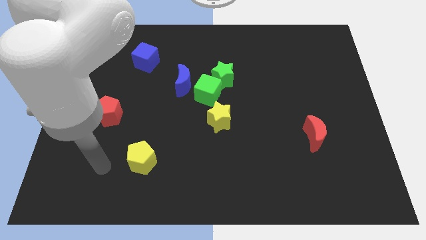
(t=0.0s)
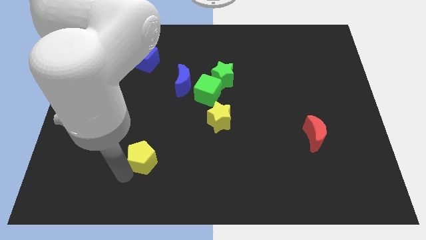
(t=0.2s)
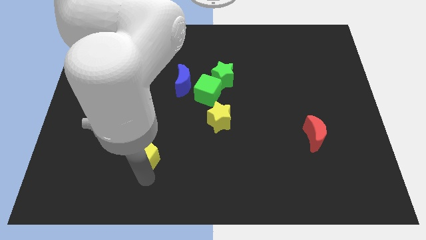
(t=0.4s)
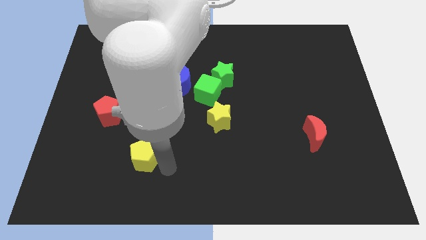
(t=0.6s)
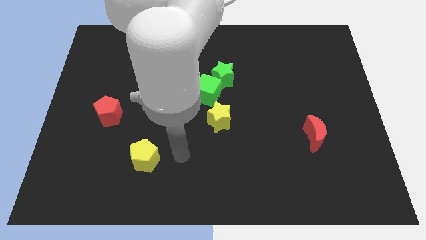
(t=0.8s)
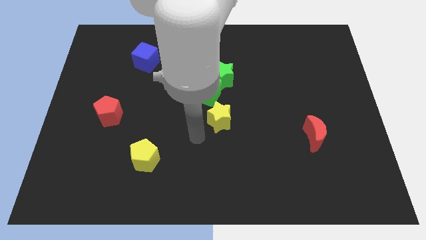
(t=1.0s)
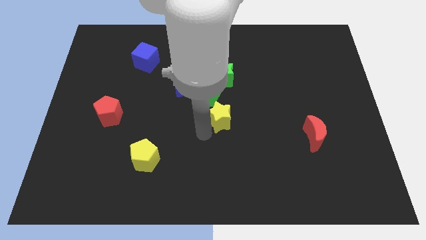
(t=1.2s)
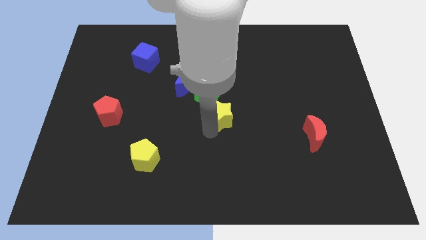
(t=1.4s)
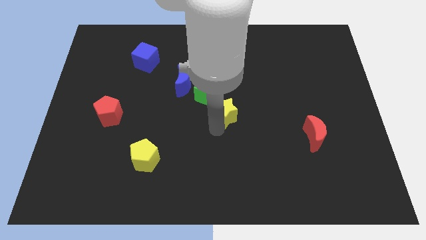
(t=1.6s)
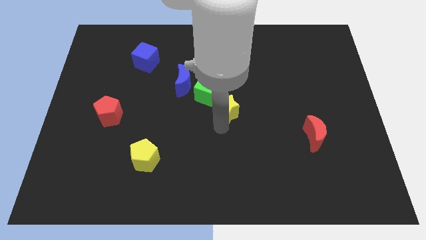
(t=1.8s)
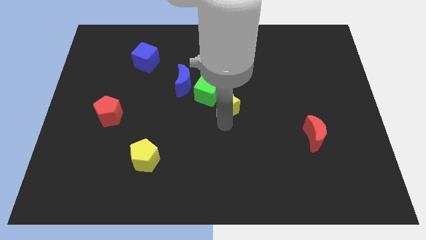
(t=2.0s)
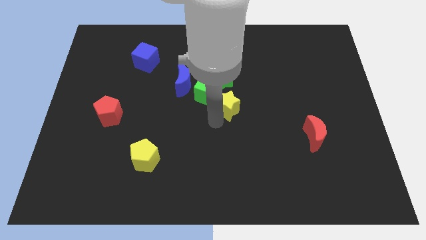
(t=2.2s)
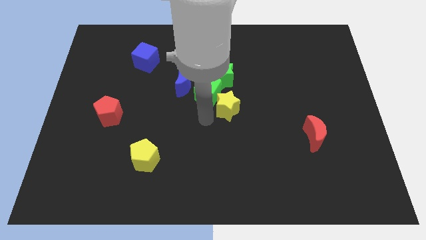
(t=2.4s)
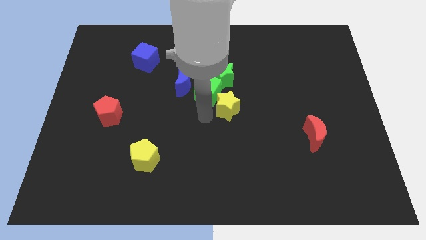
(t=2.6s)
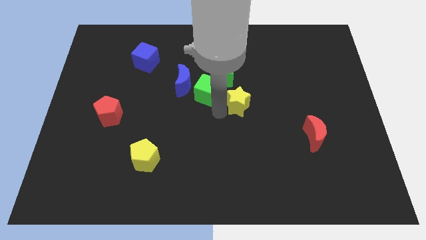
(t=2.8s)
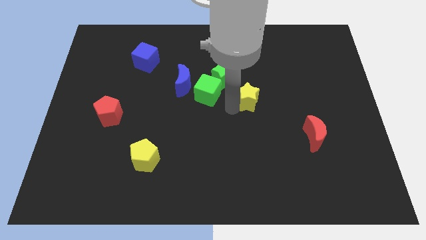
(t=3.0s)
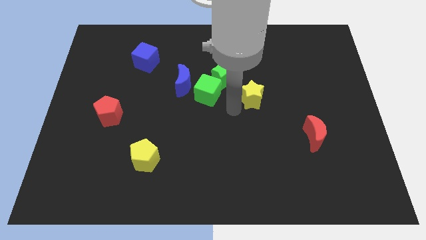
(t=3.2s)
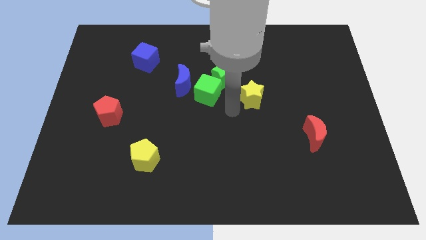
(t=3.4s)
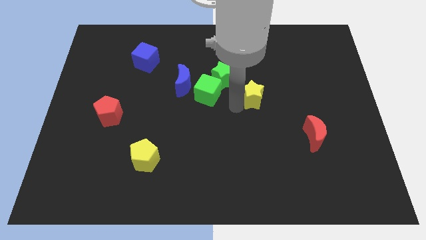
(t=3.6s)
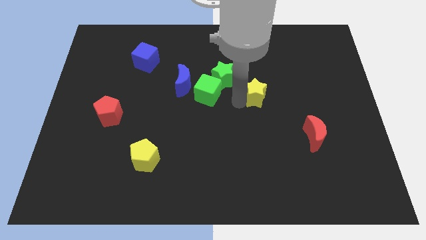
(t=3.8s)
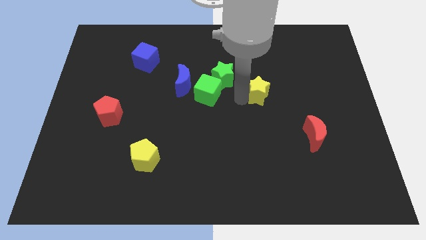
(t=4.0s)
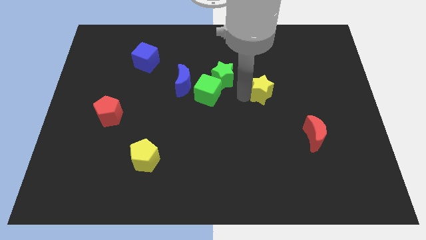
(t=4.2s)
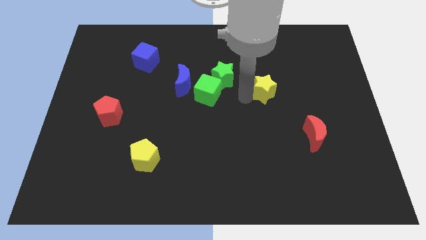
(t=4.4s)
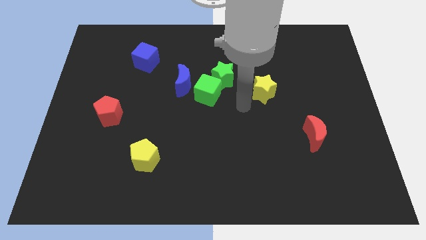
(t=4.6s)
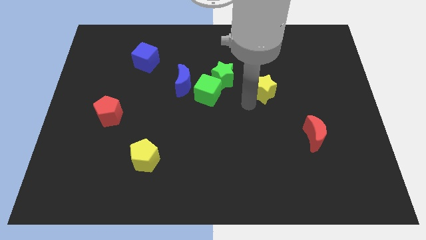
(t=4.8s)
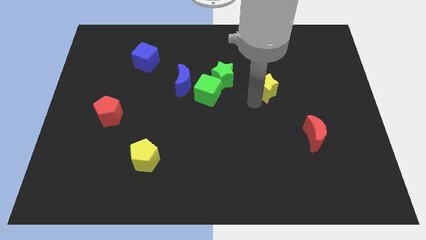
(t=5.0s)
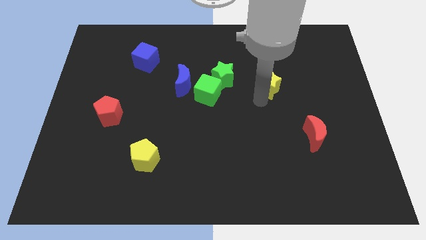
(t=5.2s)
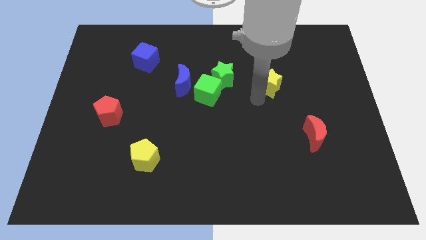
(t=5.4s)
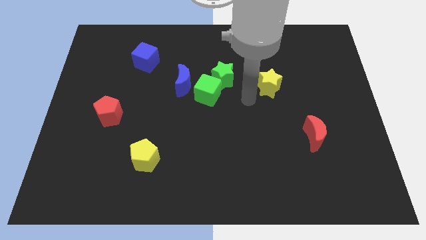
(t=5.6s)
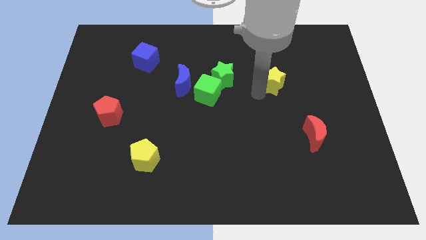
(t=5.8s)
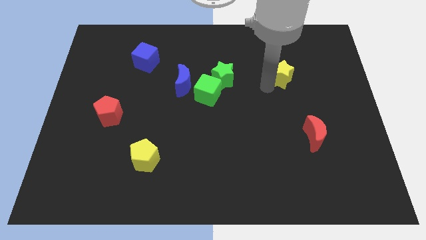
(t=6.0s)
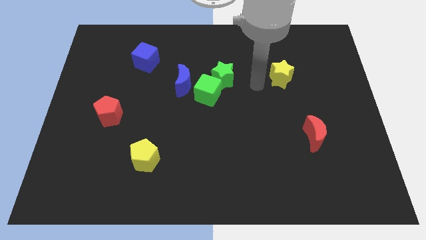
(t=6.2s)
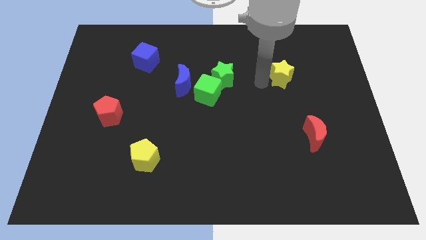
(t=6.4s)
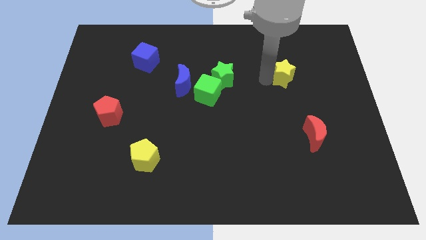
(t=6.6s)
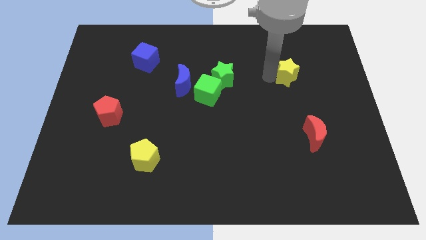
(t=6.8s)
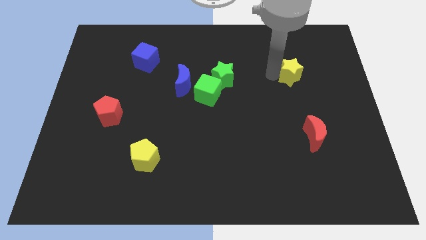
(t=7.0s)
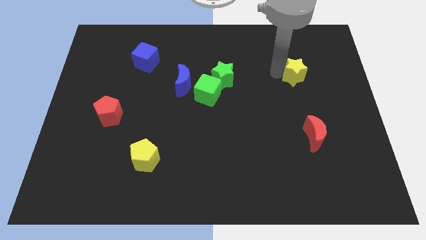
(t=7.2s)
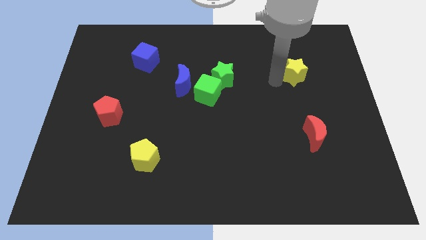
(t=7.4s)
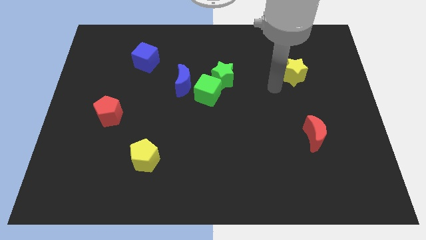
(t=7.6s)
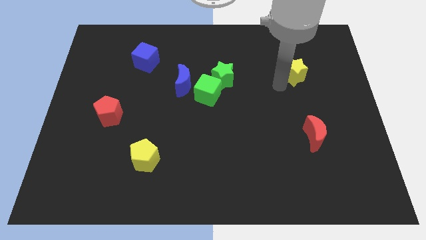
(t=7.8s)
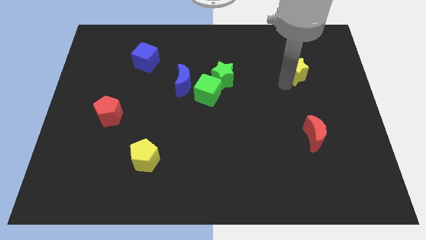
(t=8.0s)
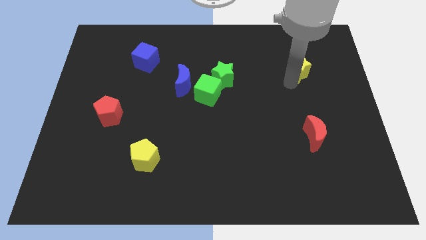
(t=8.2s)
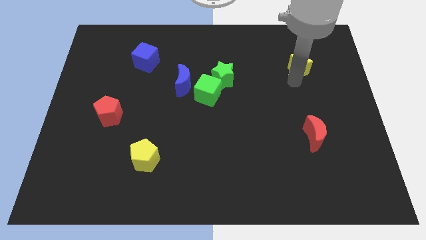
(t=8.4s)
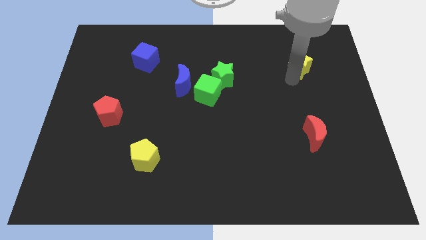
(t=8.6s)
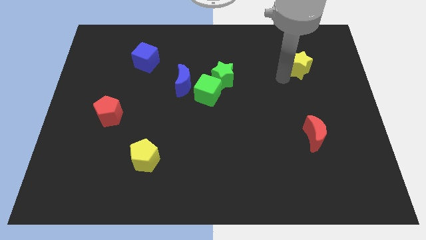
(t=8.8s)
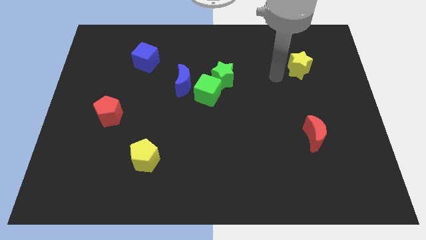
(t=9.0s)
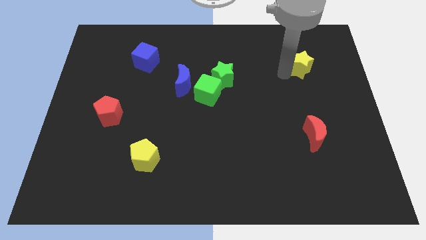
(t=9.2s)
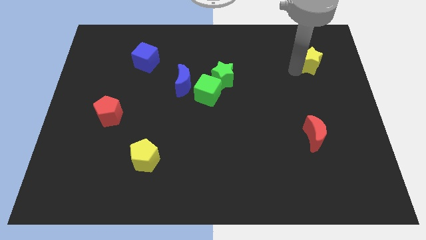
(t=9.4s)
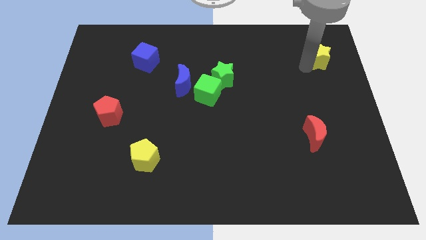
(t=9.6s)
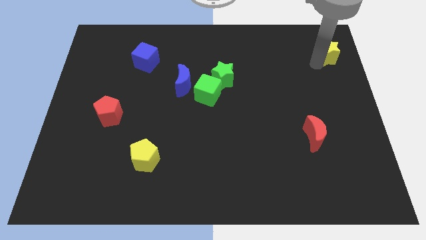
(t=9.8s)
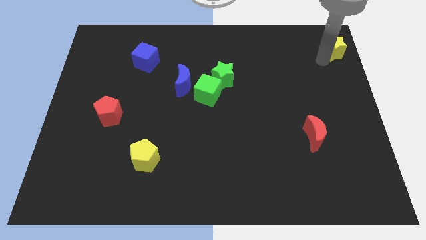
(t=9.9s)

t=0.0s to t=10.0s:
push the yellow star to the upper right corner
